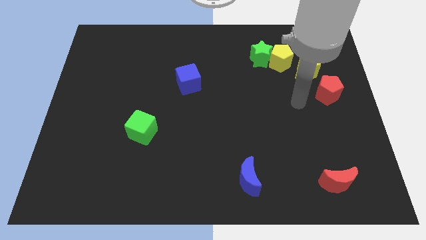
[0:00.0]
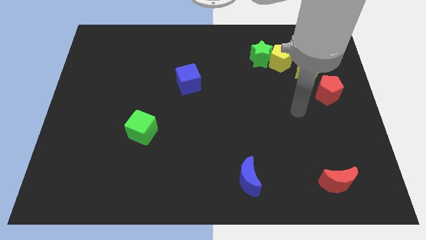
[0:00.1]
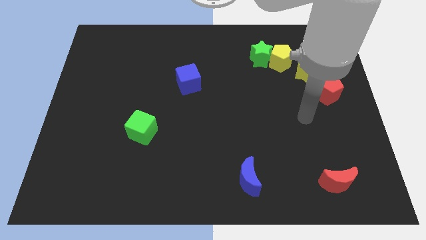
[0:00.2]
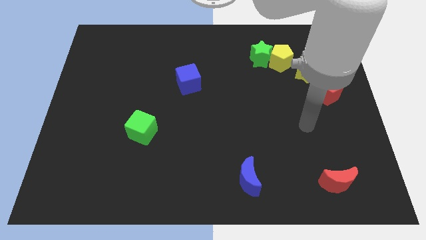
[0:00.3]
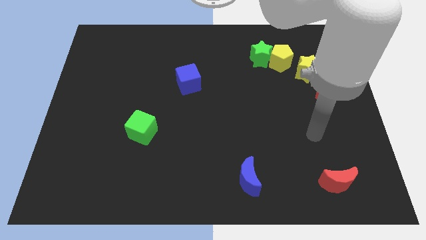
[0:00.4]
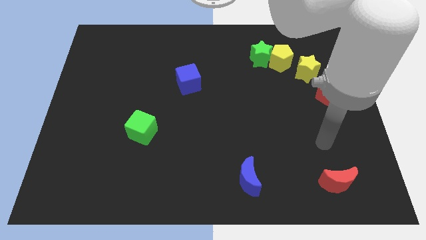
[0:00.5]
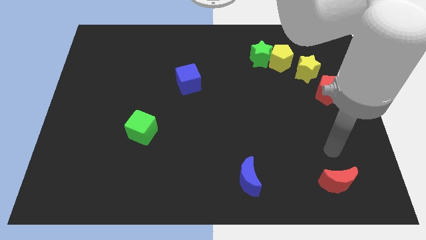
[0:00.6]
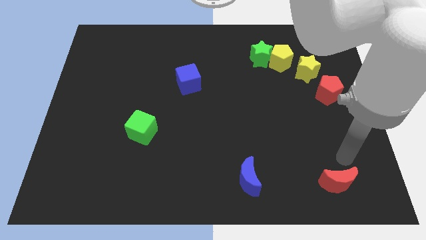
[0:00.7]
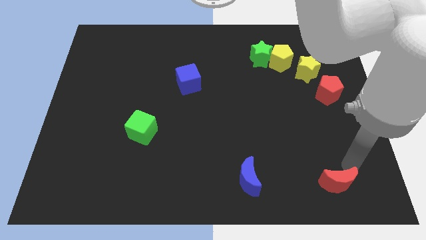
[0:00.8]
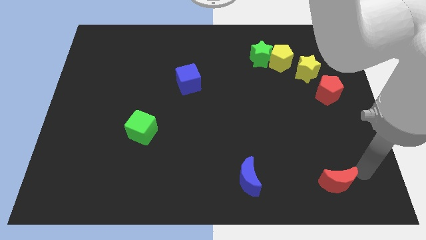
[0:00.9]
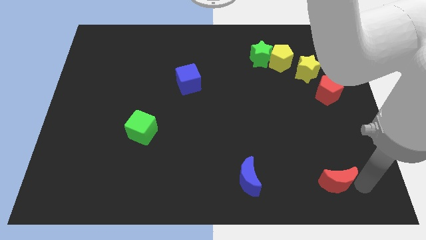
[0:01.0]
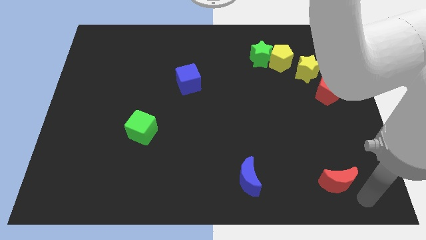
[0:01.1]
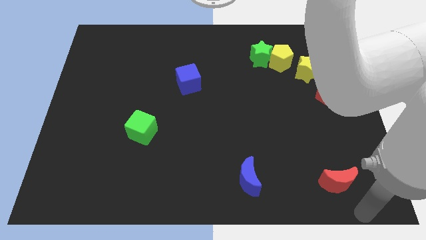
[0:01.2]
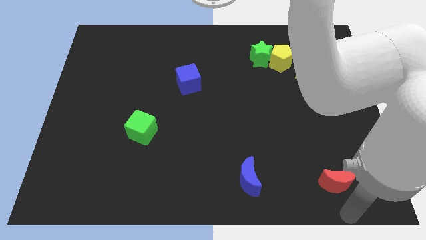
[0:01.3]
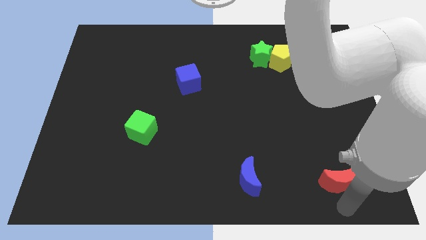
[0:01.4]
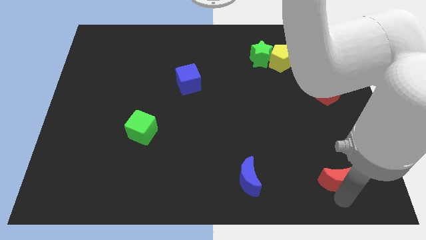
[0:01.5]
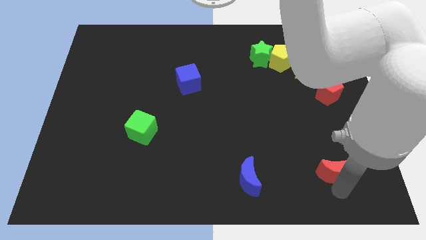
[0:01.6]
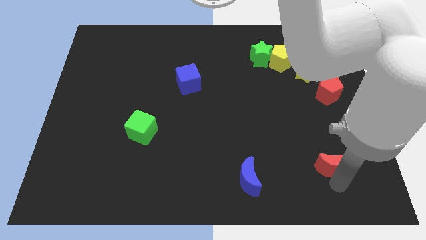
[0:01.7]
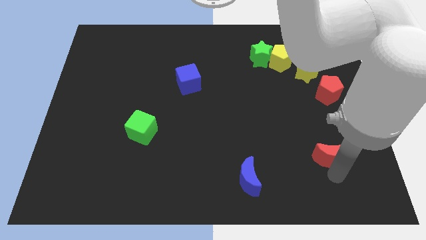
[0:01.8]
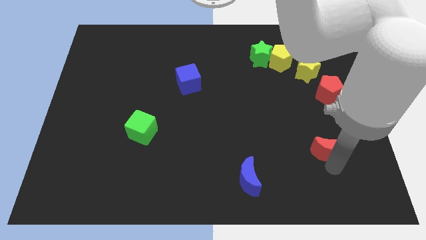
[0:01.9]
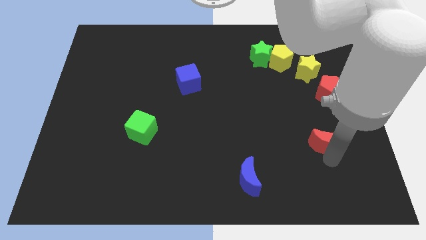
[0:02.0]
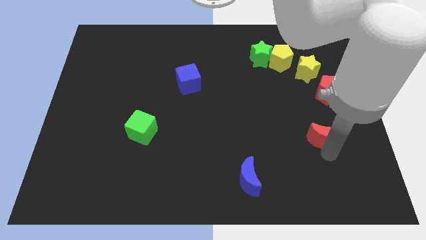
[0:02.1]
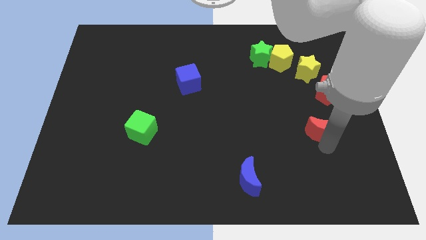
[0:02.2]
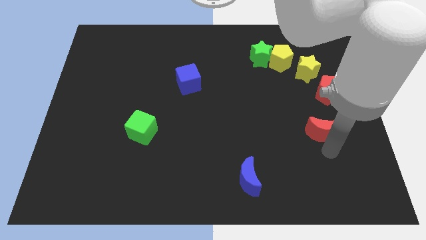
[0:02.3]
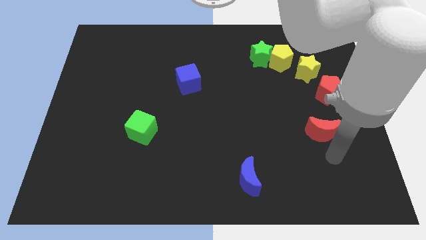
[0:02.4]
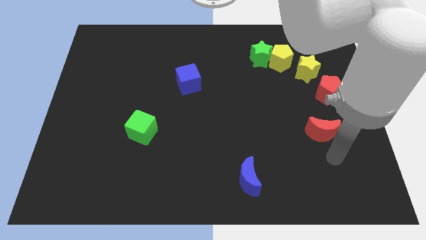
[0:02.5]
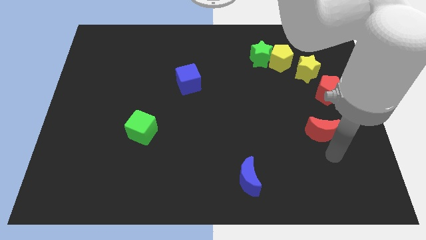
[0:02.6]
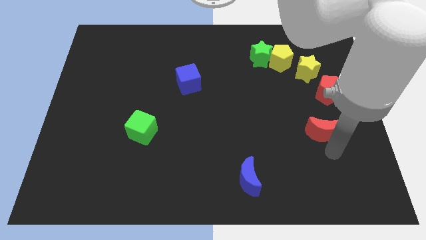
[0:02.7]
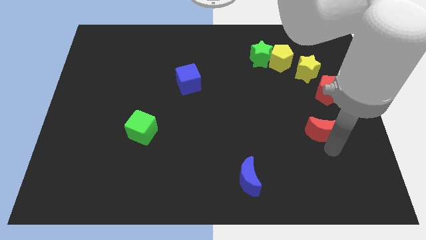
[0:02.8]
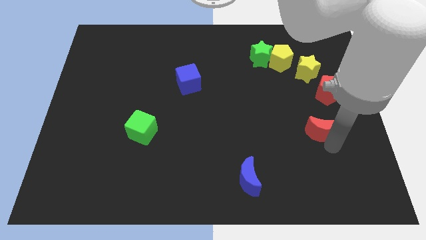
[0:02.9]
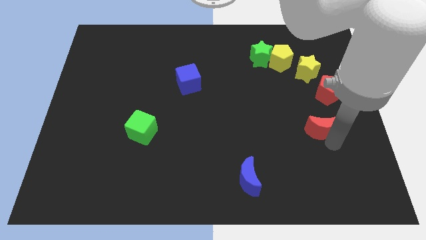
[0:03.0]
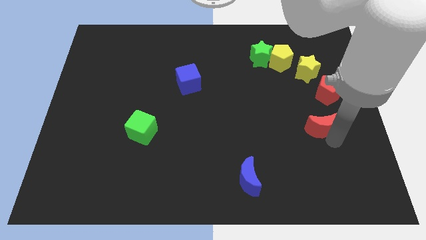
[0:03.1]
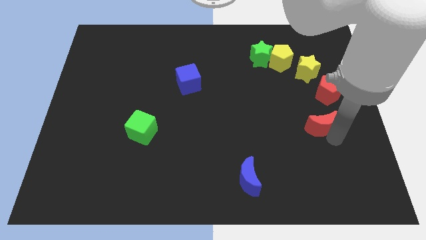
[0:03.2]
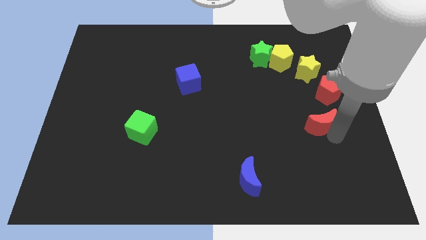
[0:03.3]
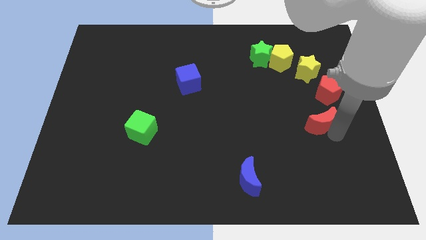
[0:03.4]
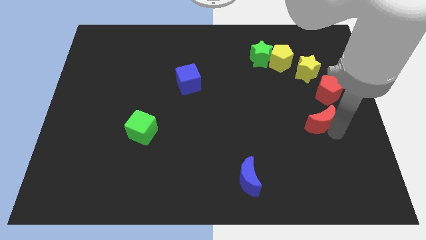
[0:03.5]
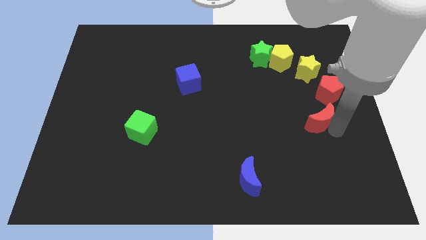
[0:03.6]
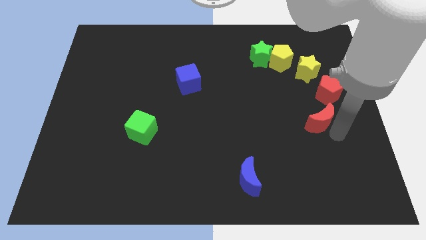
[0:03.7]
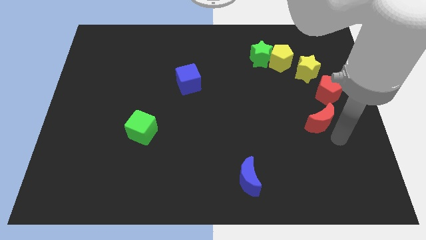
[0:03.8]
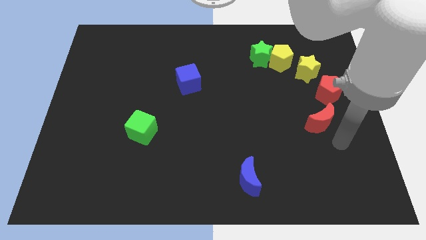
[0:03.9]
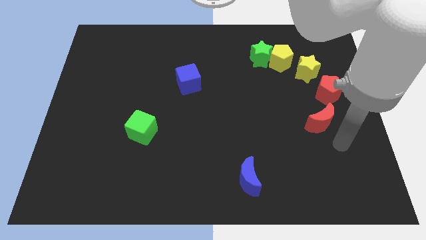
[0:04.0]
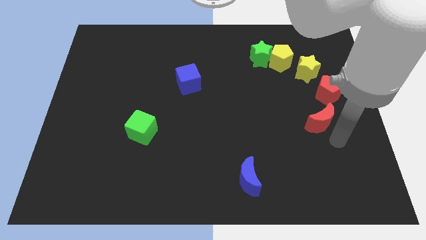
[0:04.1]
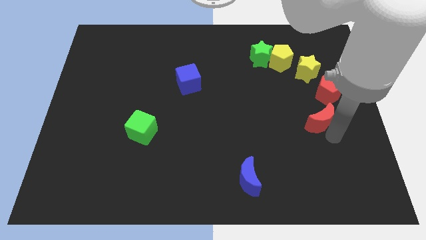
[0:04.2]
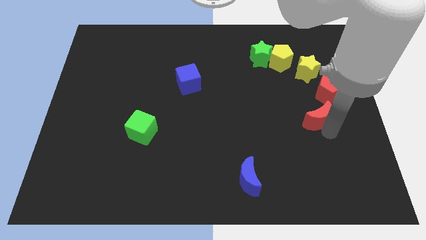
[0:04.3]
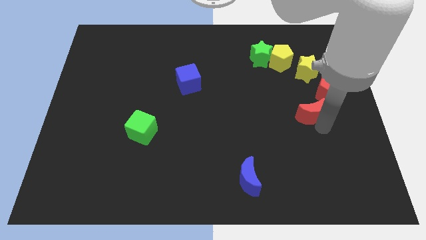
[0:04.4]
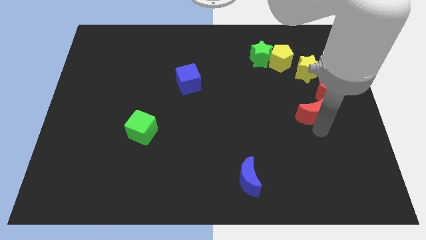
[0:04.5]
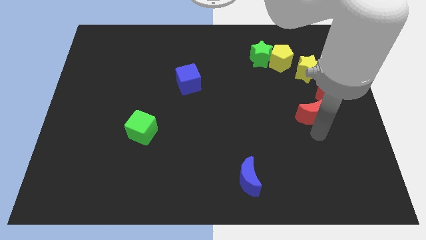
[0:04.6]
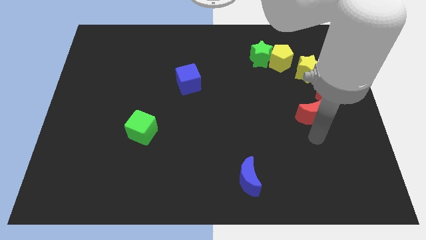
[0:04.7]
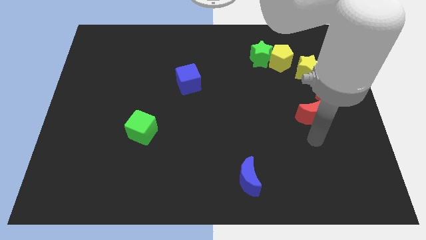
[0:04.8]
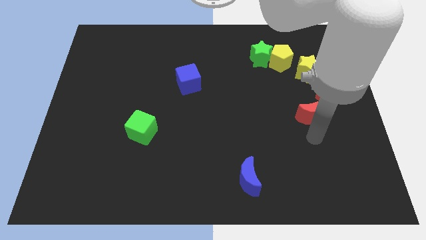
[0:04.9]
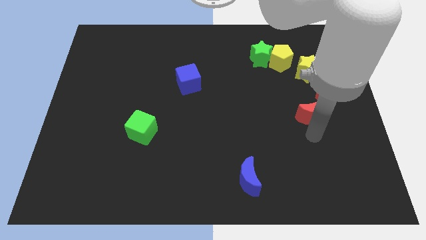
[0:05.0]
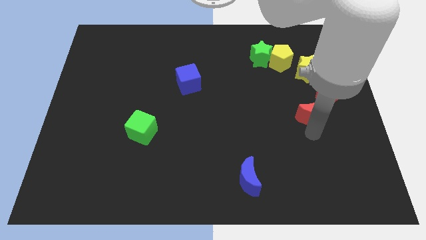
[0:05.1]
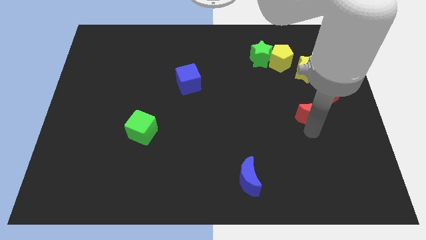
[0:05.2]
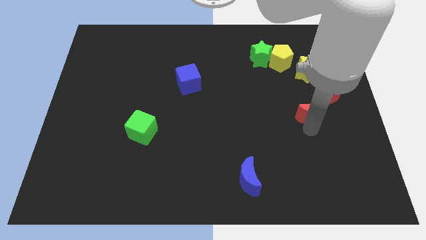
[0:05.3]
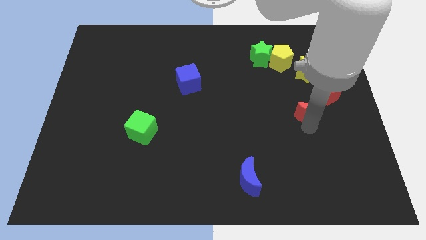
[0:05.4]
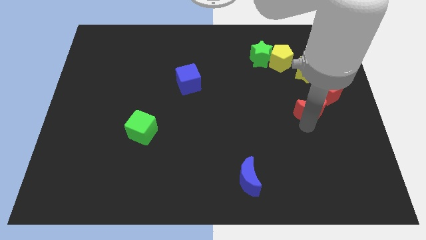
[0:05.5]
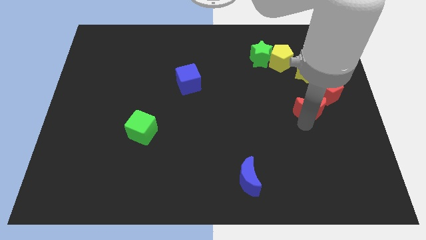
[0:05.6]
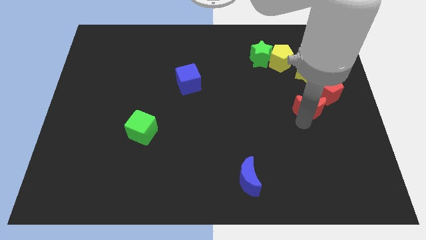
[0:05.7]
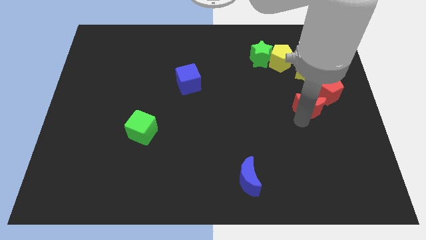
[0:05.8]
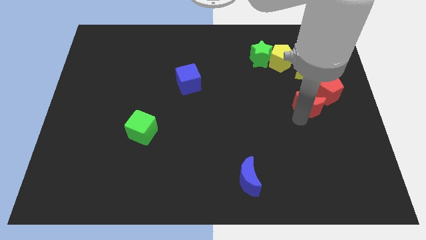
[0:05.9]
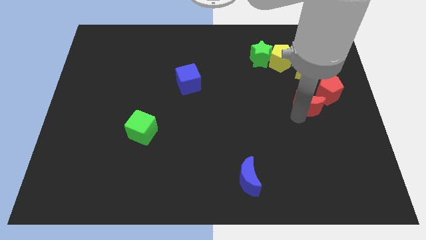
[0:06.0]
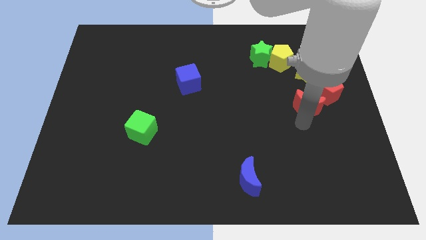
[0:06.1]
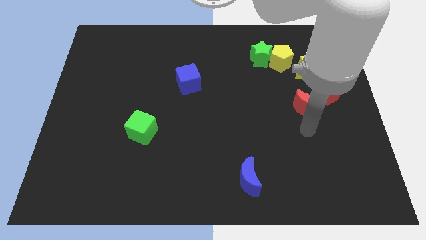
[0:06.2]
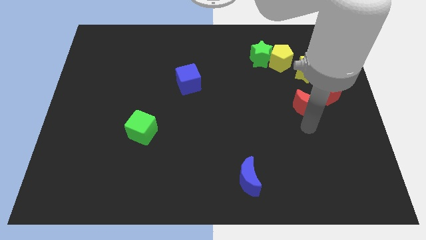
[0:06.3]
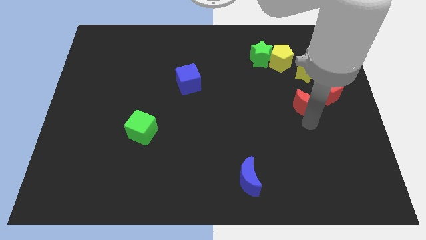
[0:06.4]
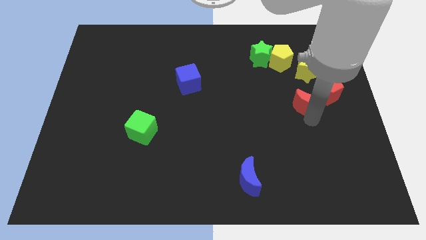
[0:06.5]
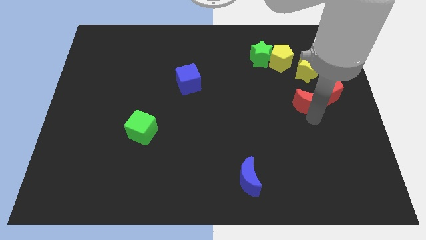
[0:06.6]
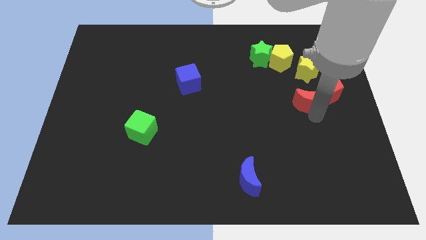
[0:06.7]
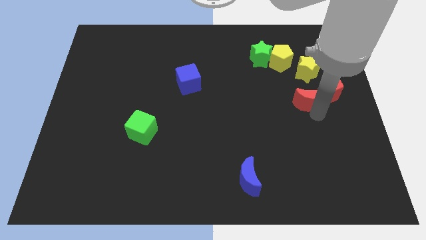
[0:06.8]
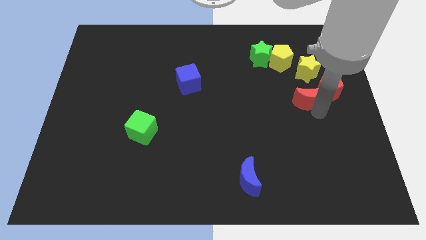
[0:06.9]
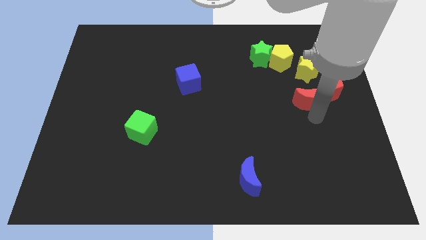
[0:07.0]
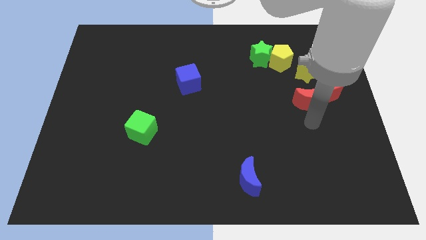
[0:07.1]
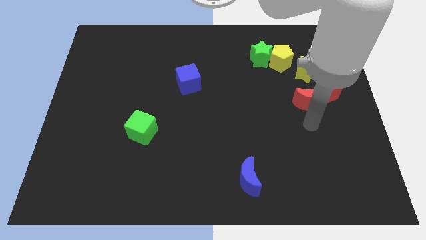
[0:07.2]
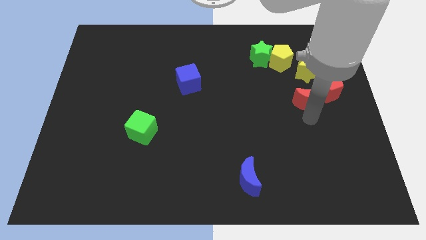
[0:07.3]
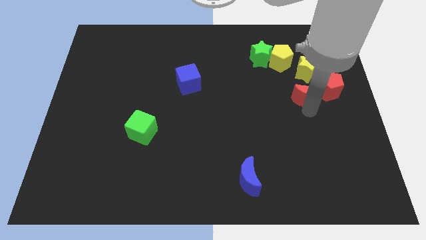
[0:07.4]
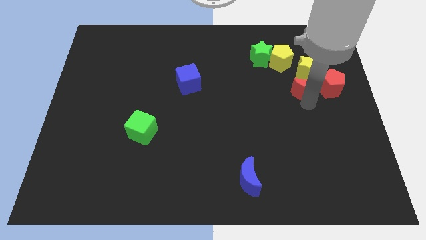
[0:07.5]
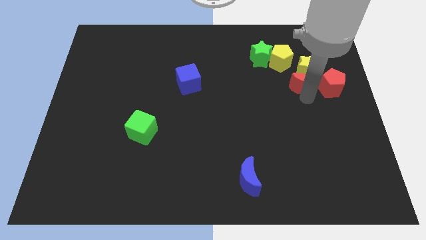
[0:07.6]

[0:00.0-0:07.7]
slide the red moon towards the yellow star
